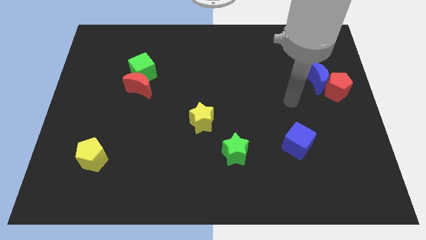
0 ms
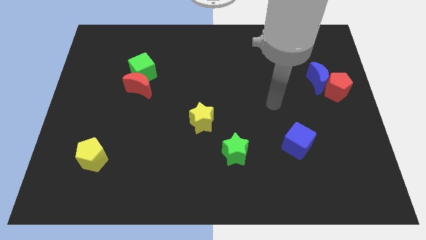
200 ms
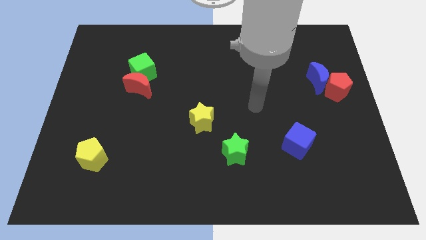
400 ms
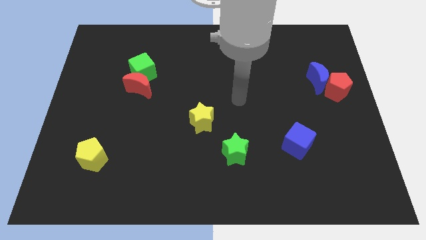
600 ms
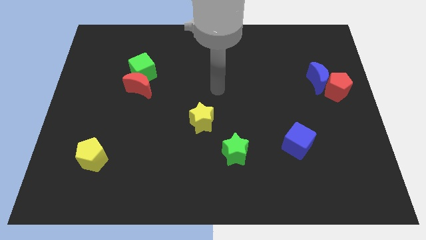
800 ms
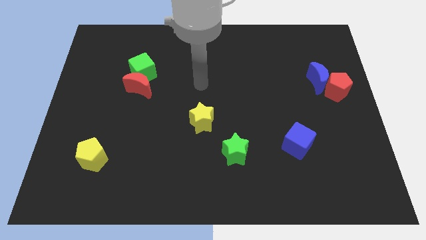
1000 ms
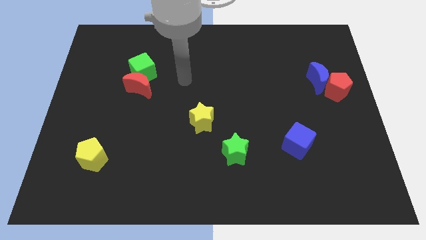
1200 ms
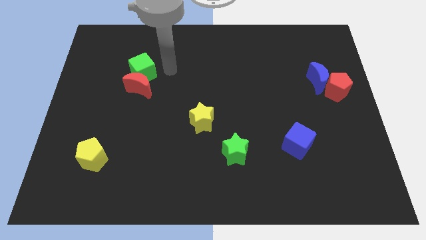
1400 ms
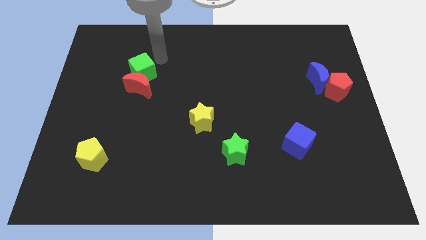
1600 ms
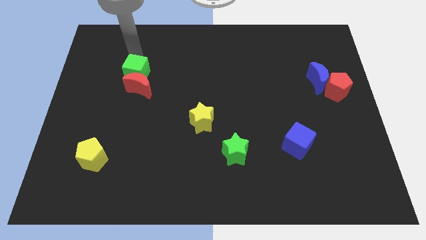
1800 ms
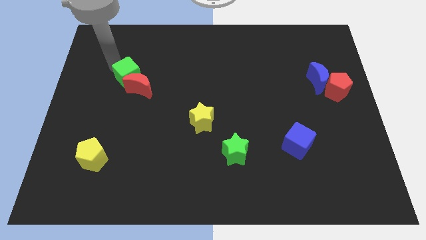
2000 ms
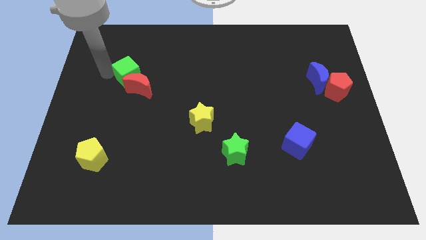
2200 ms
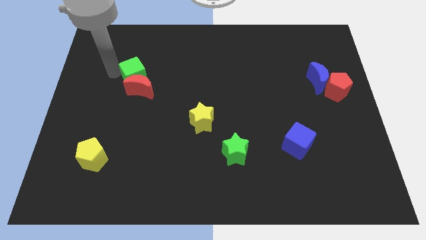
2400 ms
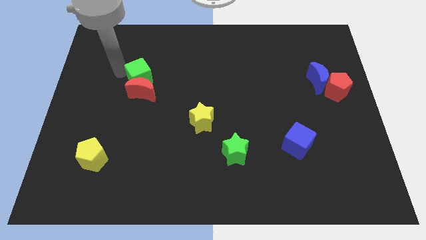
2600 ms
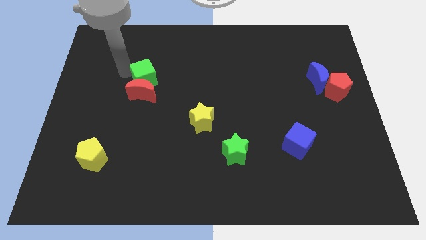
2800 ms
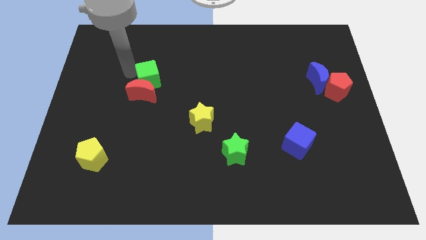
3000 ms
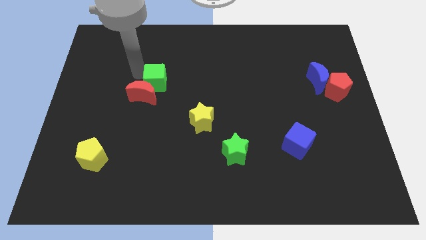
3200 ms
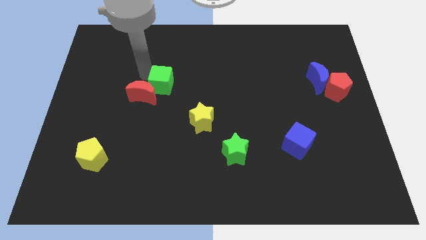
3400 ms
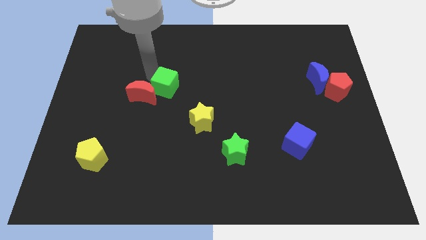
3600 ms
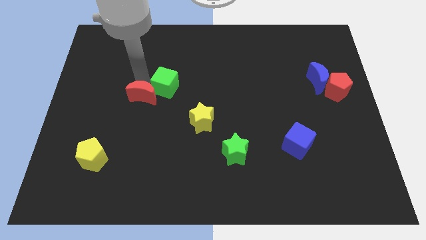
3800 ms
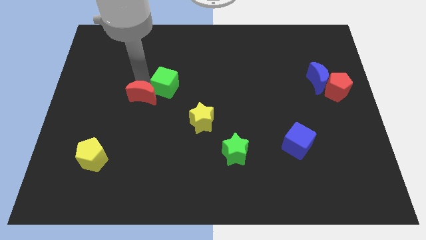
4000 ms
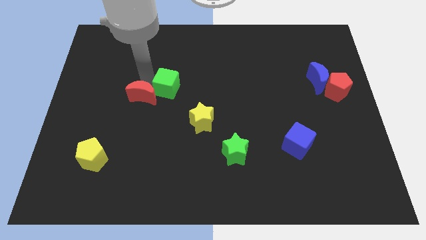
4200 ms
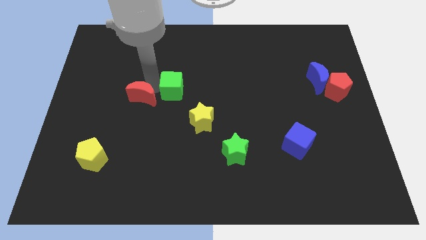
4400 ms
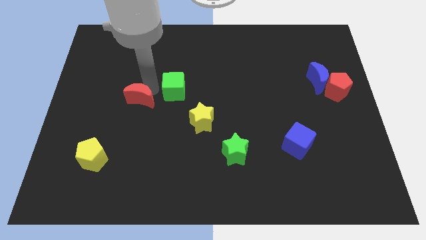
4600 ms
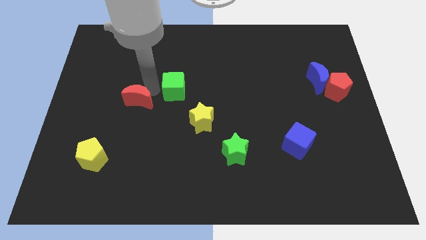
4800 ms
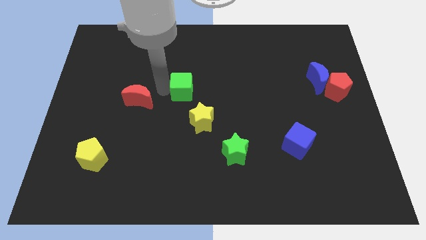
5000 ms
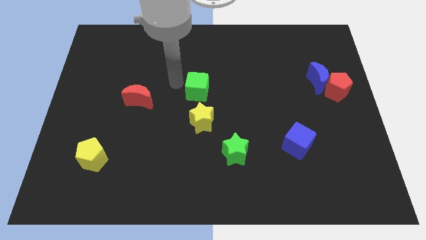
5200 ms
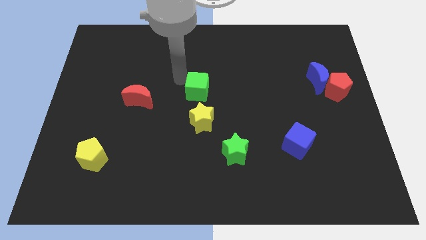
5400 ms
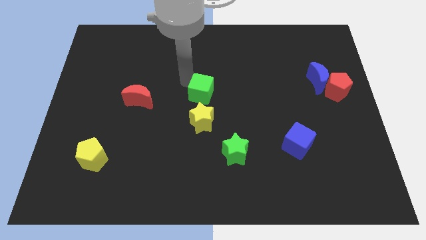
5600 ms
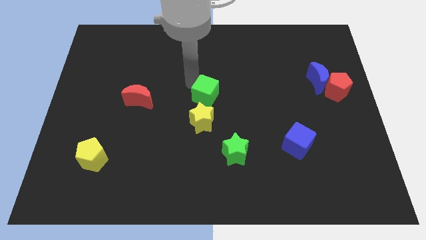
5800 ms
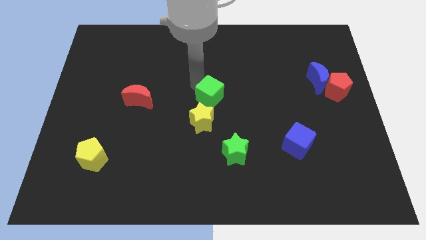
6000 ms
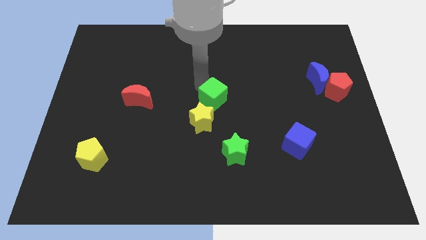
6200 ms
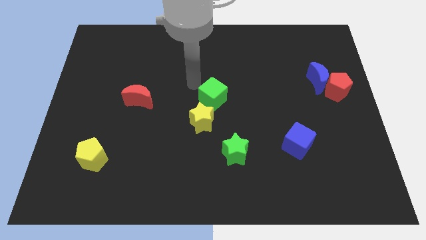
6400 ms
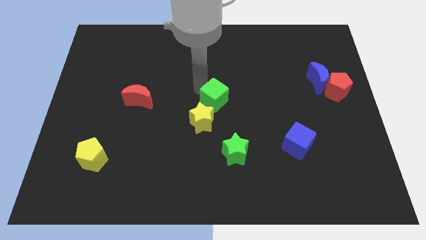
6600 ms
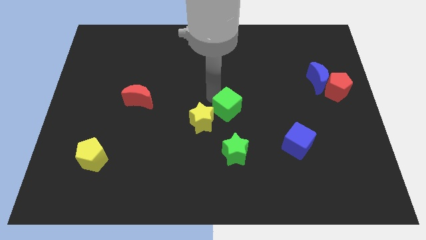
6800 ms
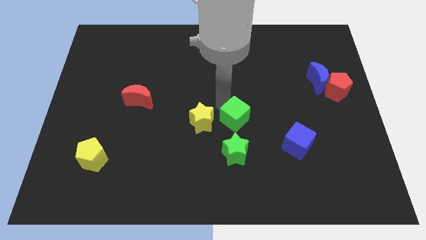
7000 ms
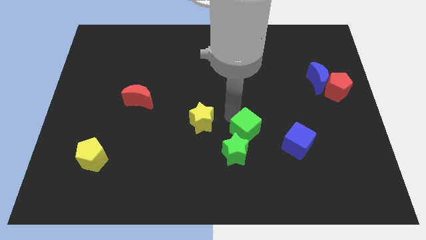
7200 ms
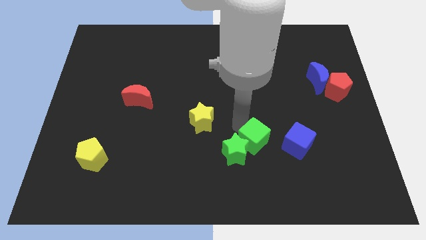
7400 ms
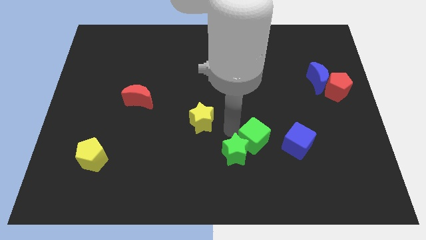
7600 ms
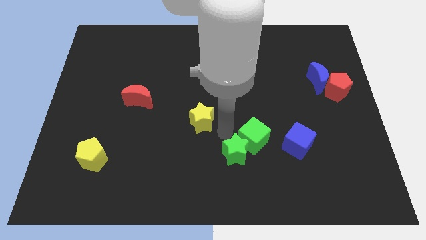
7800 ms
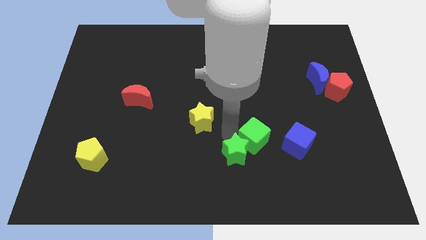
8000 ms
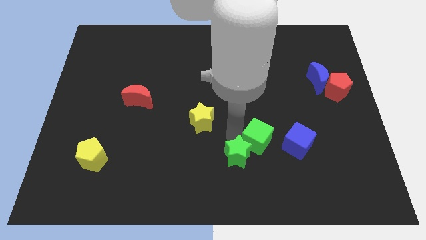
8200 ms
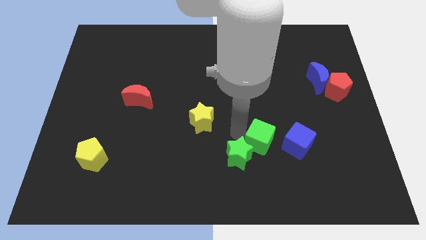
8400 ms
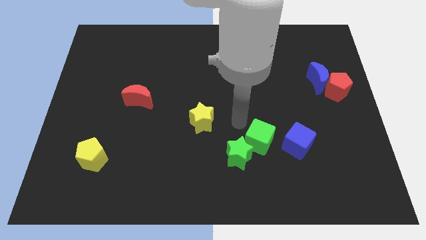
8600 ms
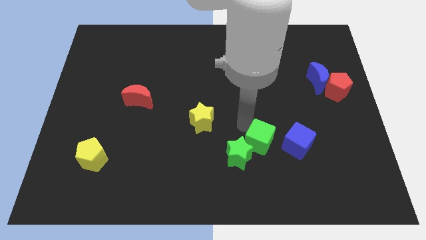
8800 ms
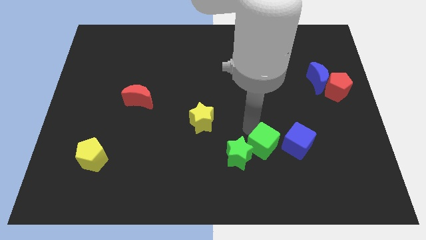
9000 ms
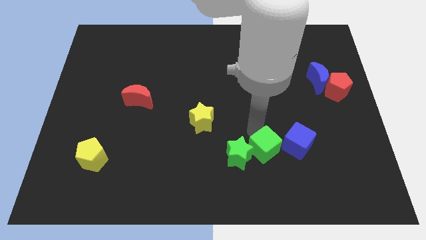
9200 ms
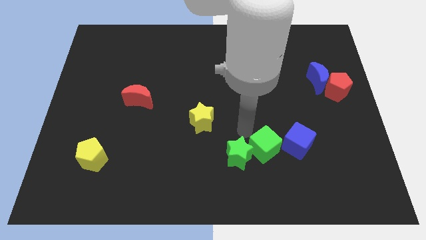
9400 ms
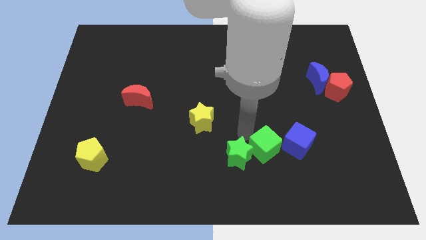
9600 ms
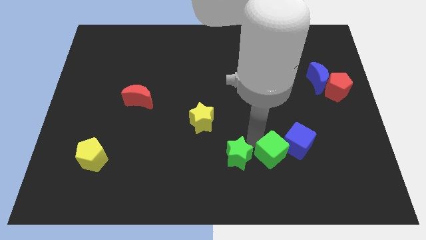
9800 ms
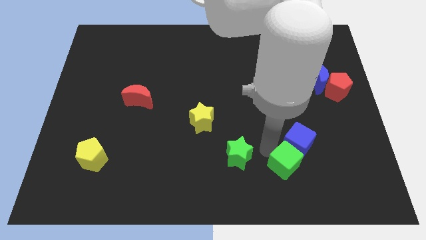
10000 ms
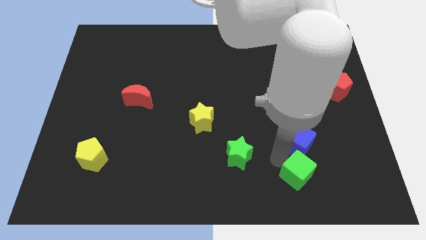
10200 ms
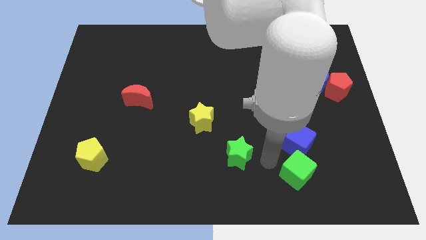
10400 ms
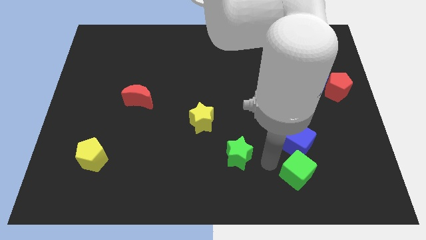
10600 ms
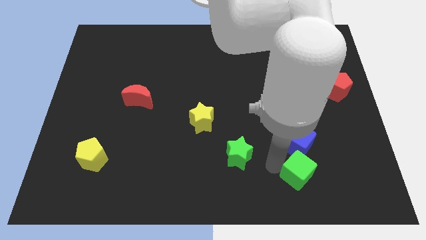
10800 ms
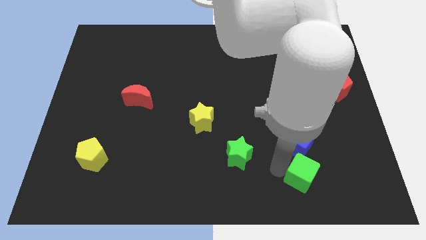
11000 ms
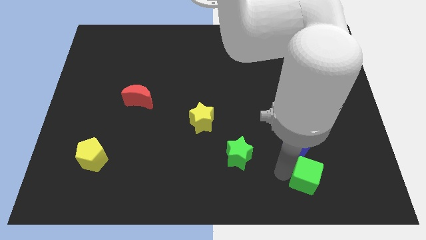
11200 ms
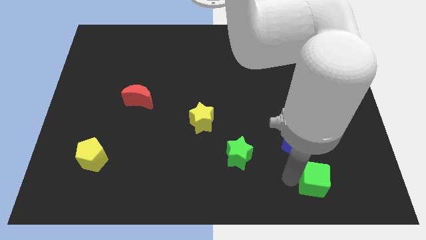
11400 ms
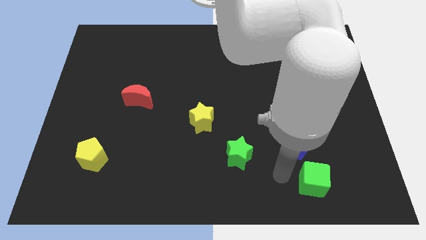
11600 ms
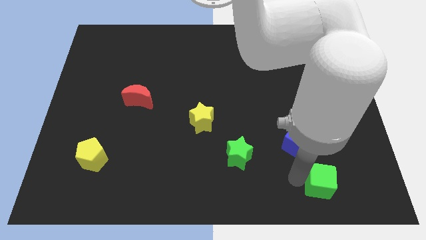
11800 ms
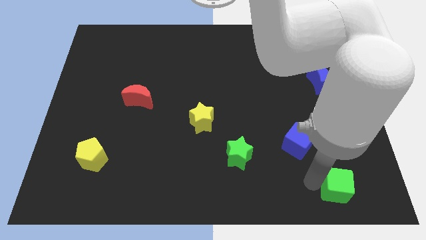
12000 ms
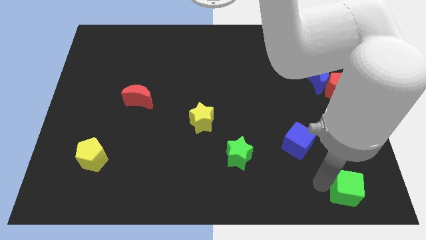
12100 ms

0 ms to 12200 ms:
move the green cube to the lower right corner

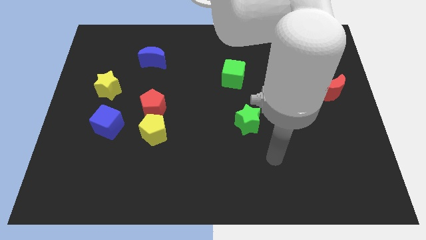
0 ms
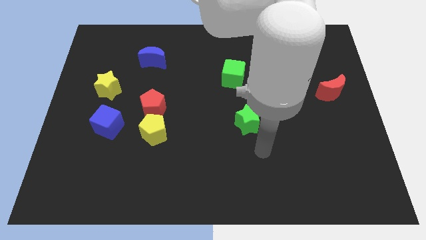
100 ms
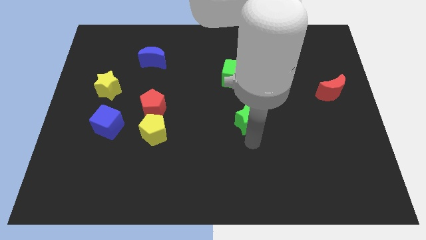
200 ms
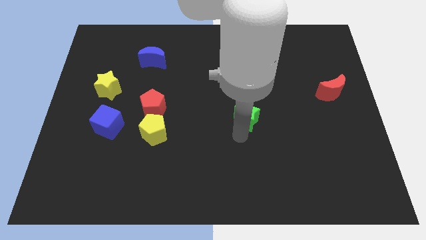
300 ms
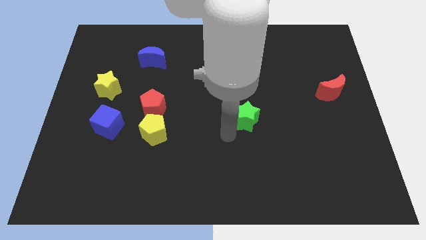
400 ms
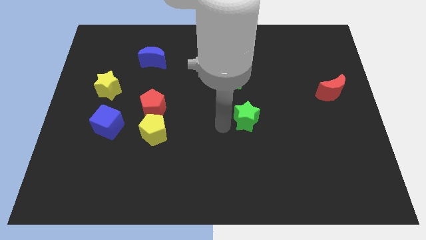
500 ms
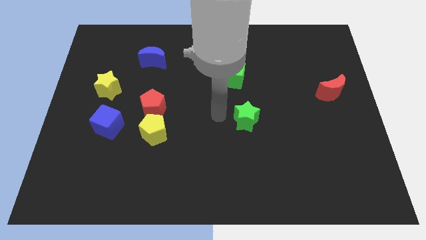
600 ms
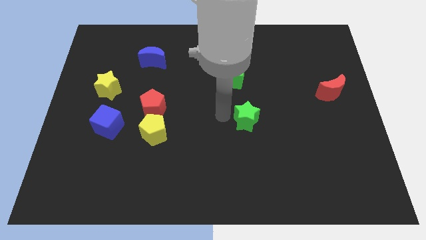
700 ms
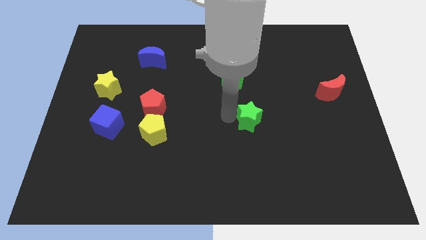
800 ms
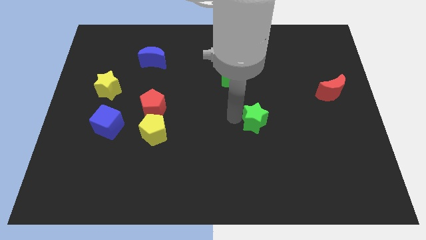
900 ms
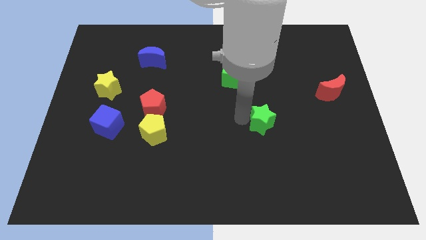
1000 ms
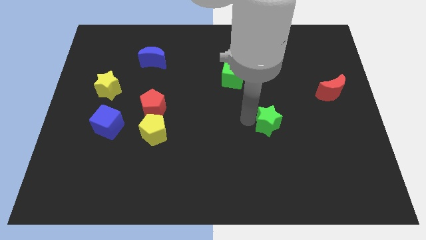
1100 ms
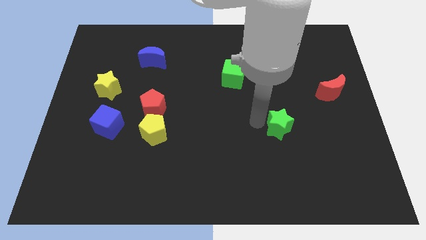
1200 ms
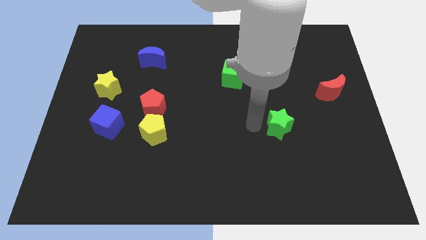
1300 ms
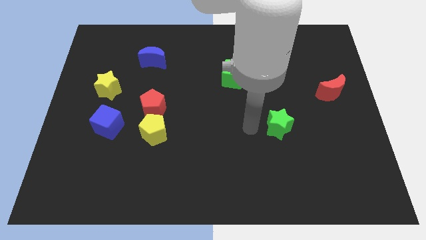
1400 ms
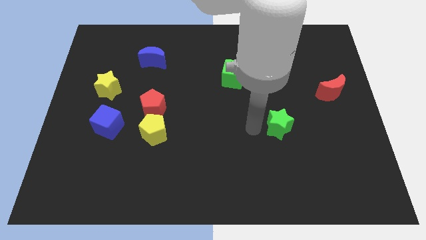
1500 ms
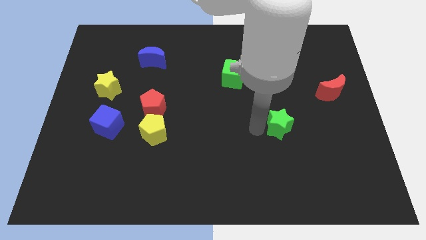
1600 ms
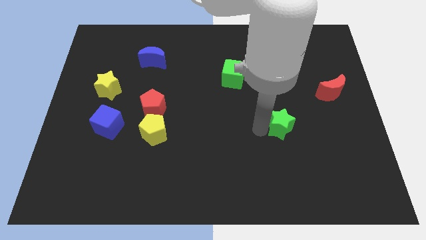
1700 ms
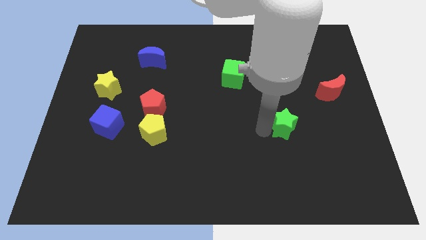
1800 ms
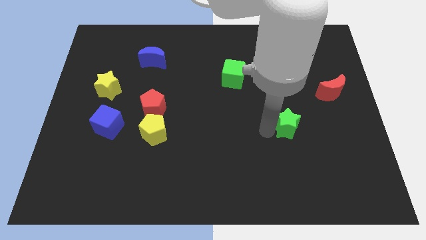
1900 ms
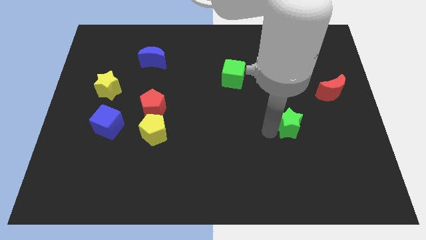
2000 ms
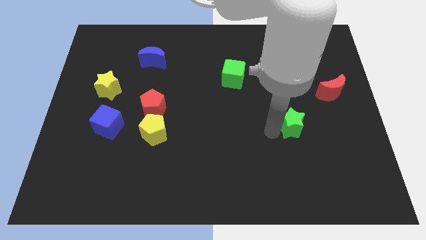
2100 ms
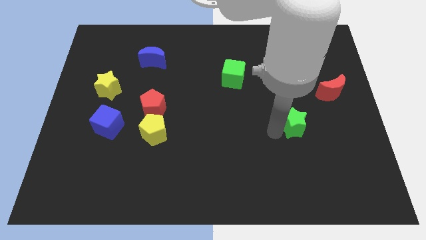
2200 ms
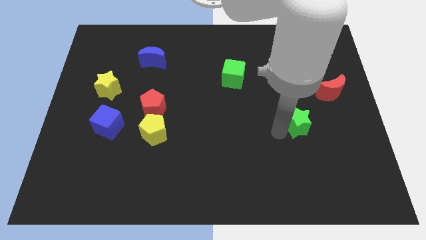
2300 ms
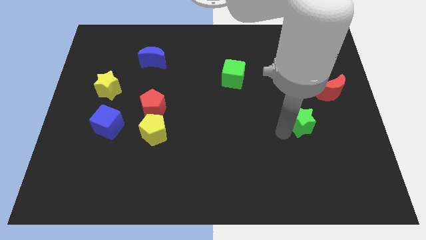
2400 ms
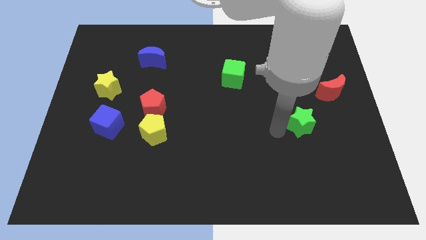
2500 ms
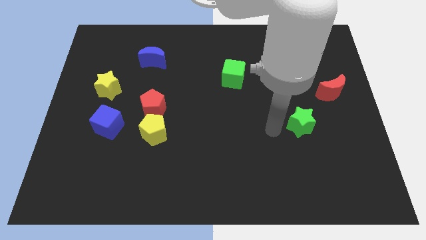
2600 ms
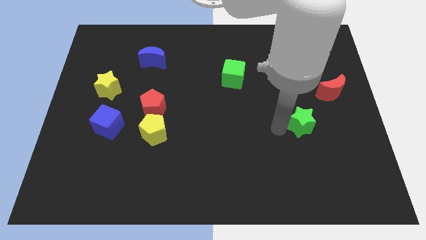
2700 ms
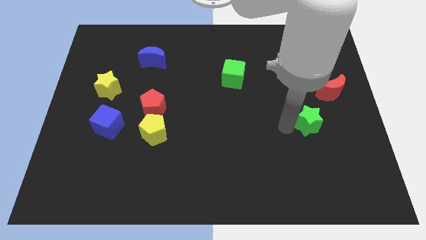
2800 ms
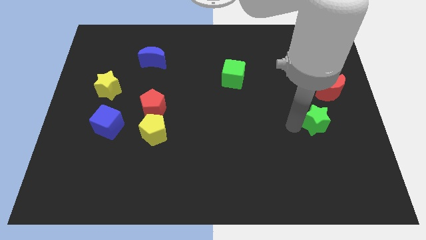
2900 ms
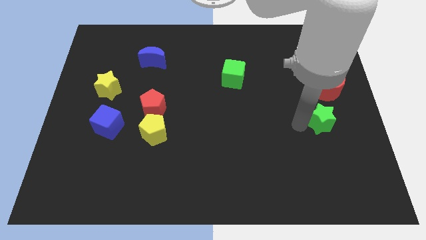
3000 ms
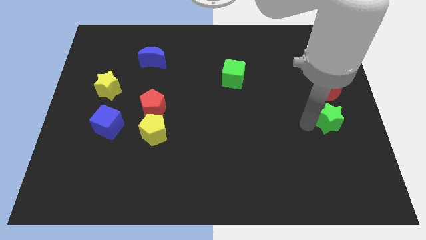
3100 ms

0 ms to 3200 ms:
put the green star to the right side
